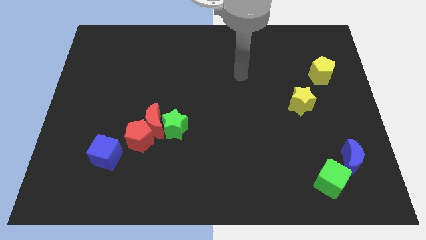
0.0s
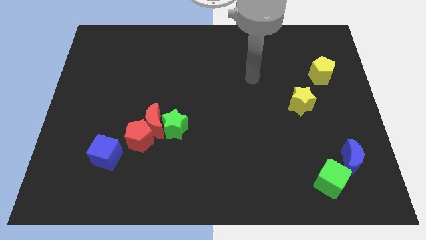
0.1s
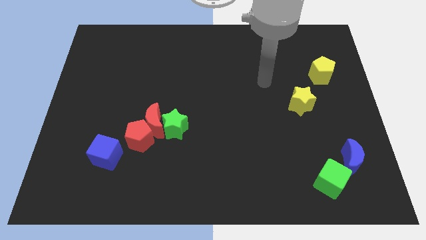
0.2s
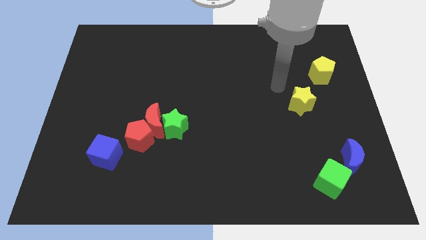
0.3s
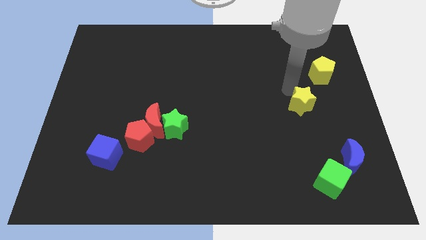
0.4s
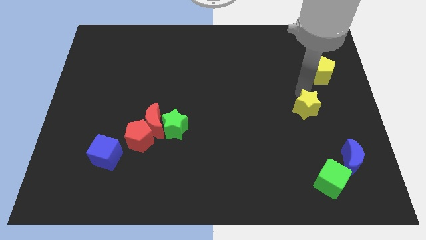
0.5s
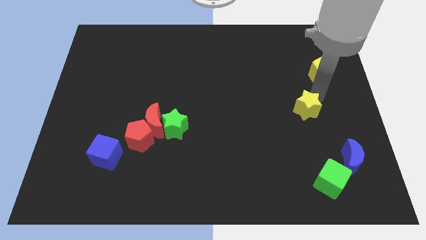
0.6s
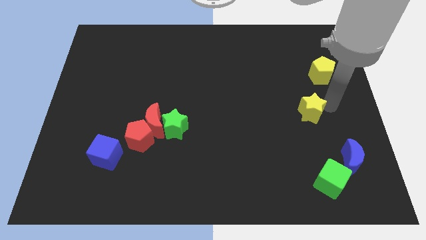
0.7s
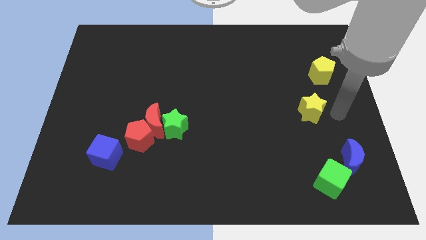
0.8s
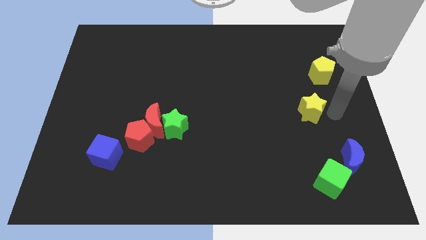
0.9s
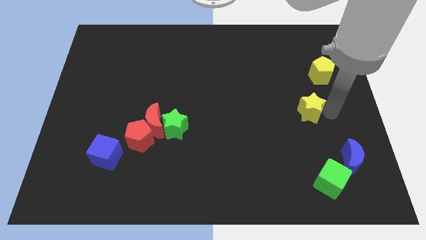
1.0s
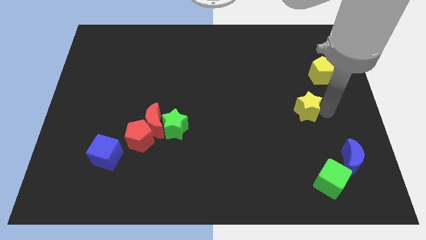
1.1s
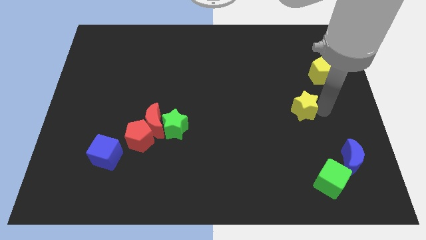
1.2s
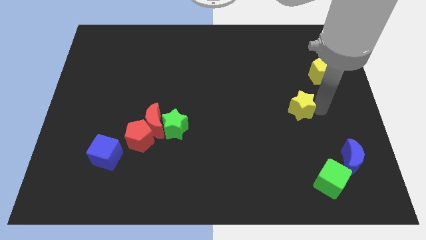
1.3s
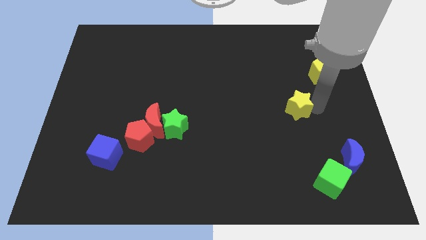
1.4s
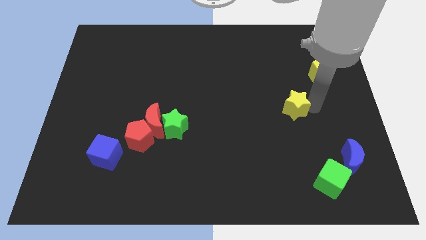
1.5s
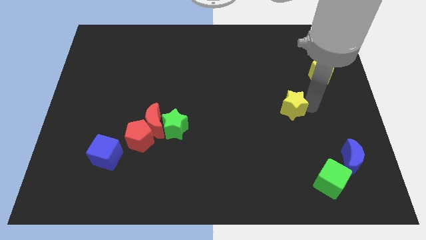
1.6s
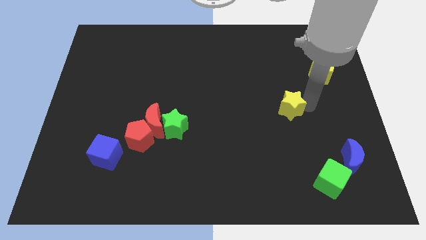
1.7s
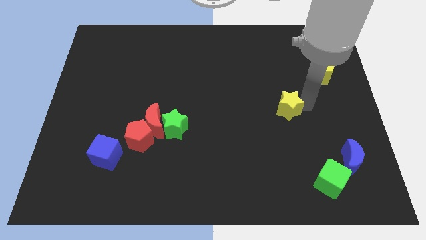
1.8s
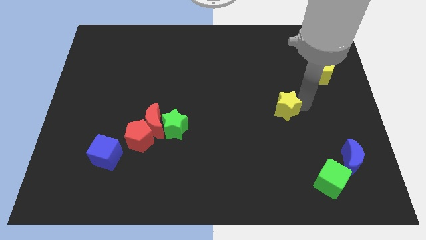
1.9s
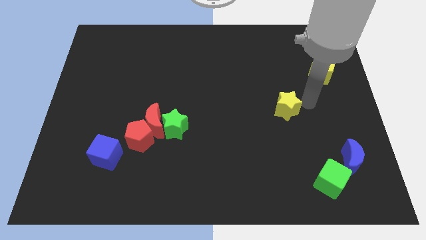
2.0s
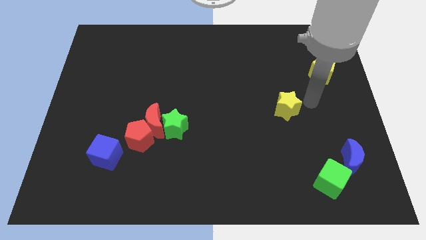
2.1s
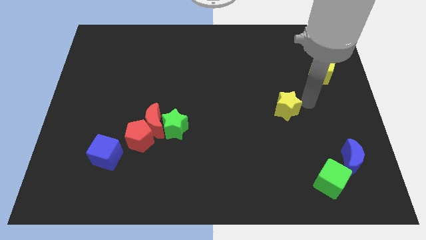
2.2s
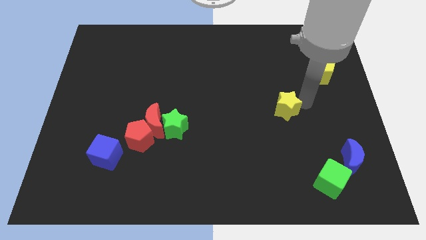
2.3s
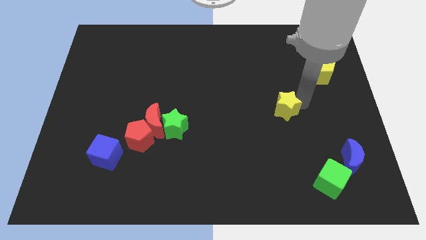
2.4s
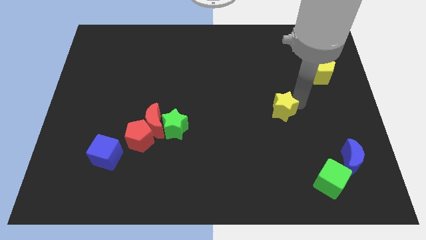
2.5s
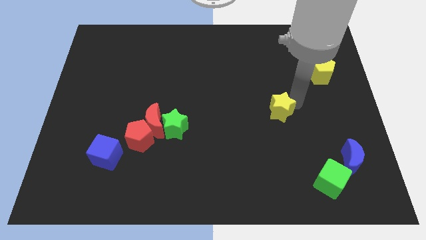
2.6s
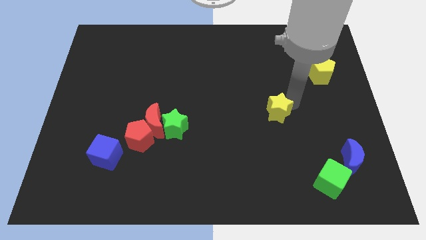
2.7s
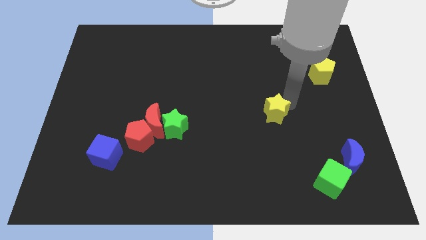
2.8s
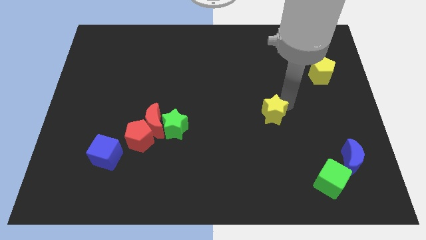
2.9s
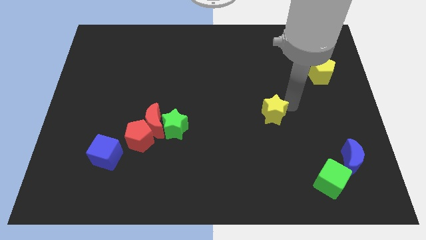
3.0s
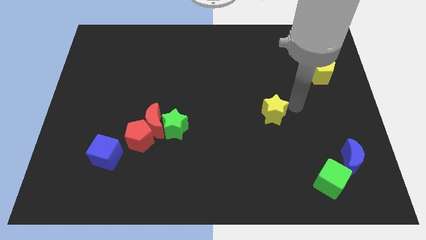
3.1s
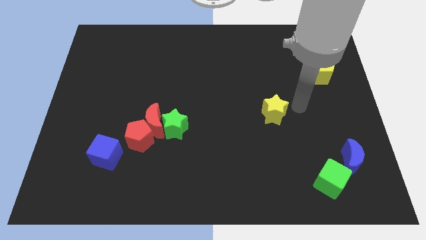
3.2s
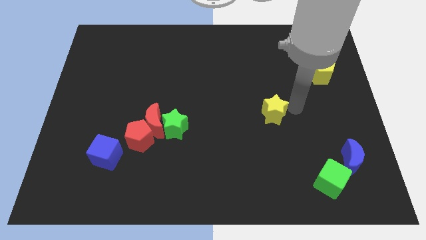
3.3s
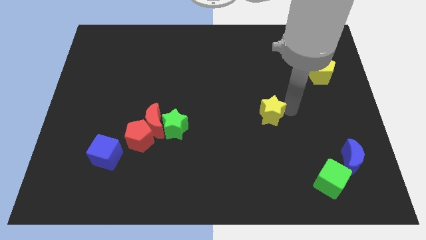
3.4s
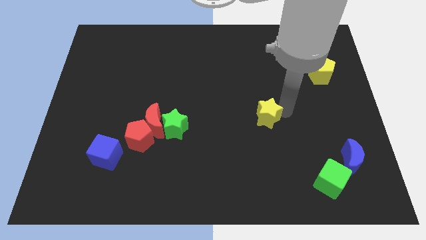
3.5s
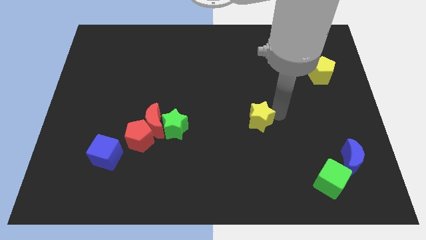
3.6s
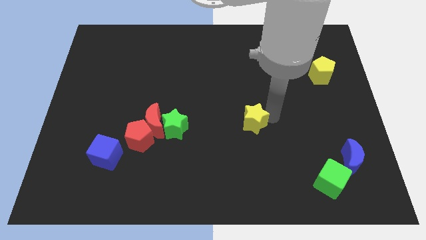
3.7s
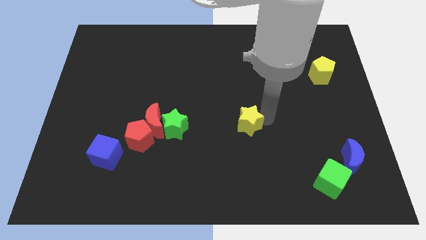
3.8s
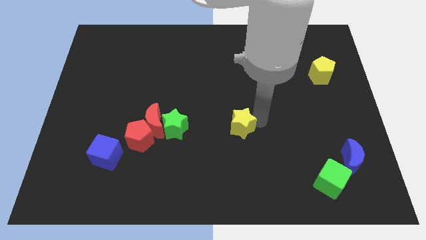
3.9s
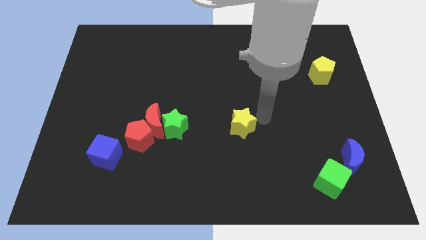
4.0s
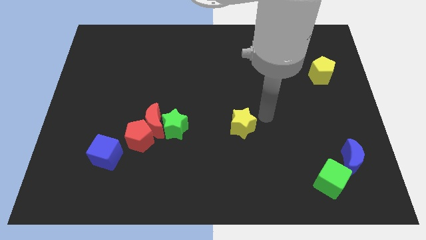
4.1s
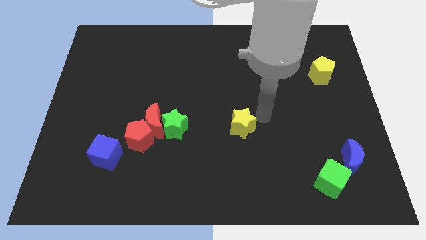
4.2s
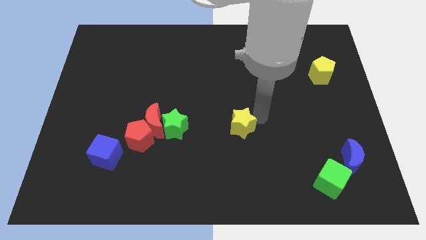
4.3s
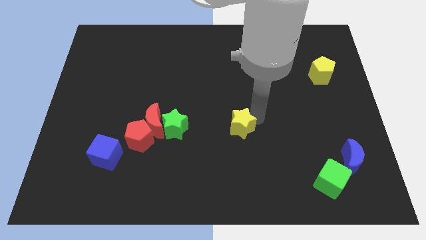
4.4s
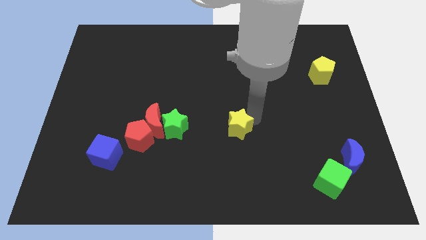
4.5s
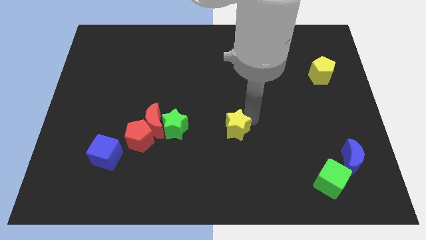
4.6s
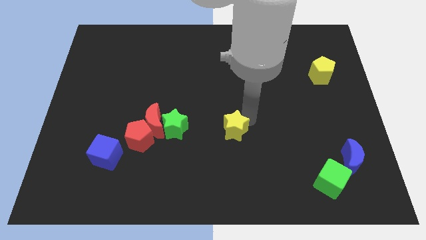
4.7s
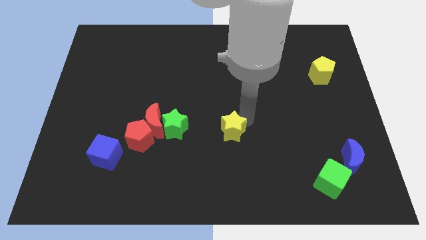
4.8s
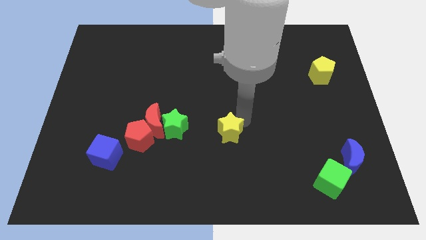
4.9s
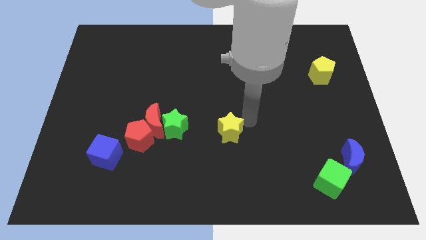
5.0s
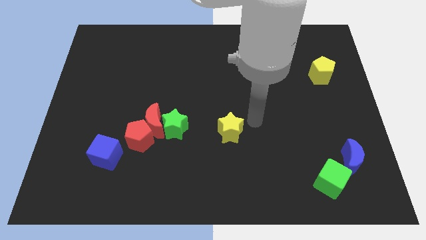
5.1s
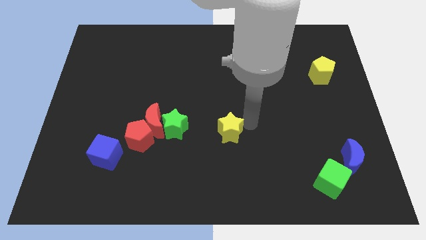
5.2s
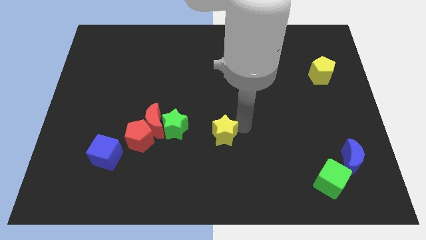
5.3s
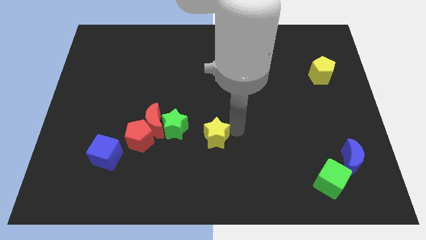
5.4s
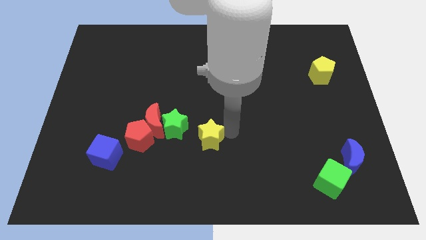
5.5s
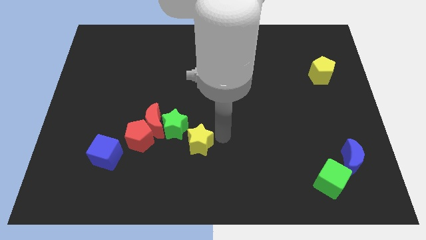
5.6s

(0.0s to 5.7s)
move the yellow star to the bottom right side of the red moon

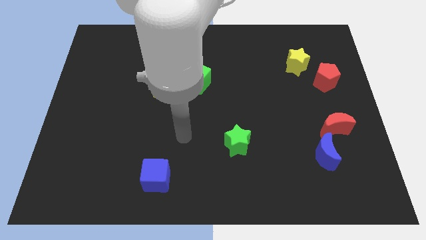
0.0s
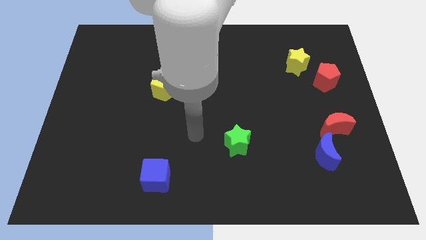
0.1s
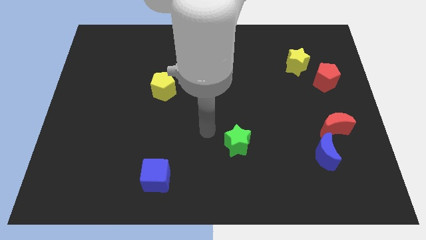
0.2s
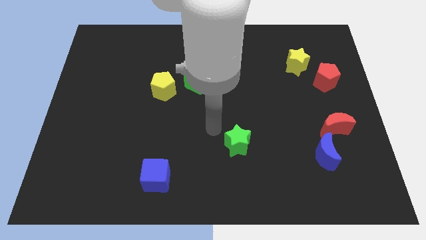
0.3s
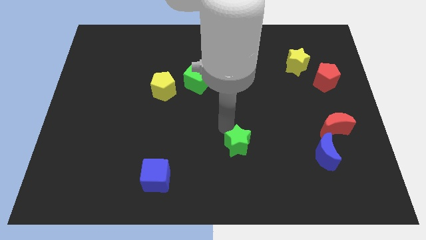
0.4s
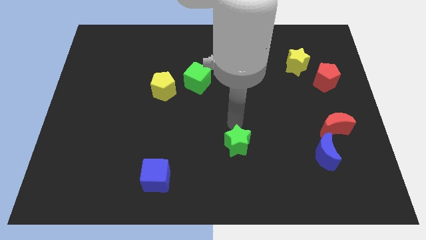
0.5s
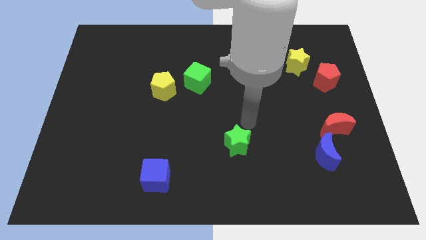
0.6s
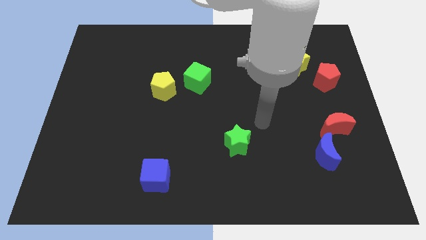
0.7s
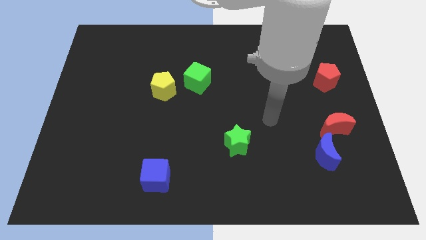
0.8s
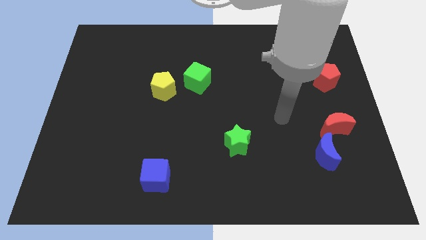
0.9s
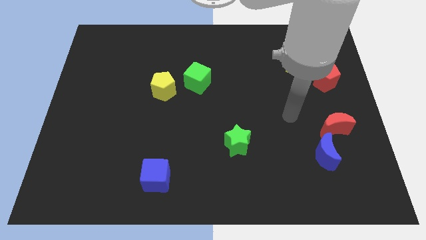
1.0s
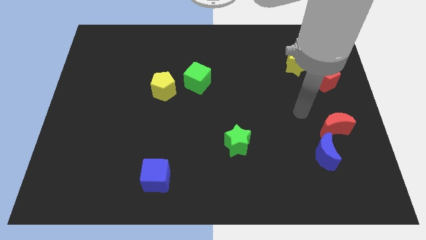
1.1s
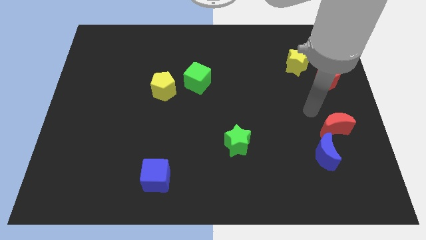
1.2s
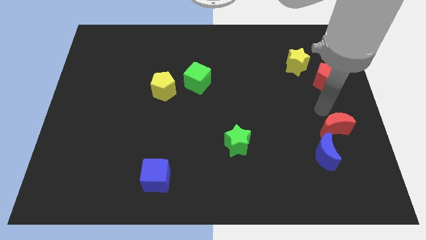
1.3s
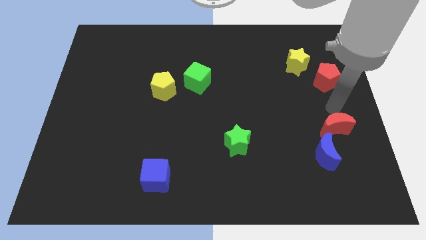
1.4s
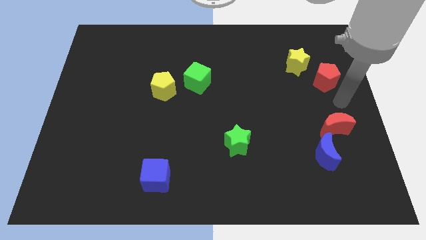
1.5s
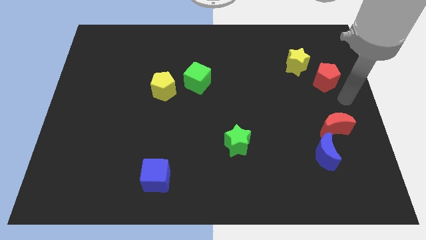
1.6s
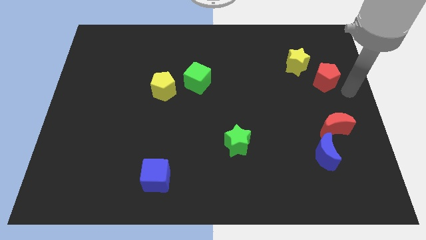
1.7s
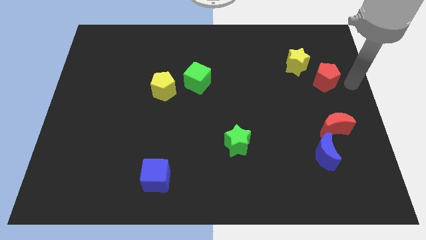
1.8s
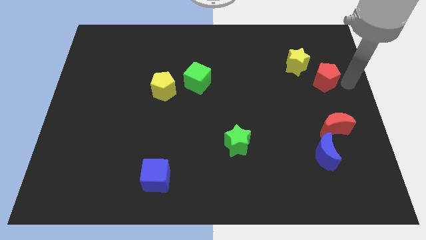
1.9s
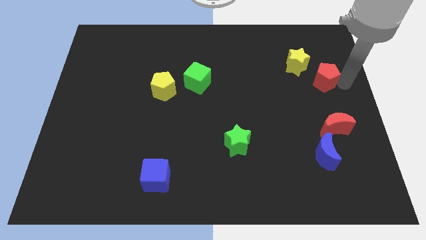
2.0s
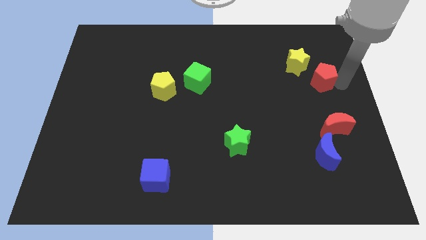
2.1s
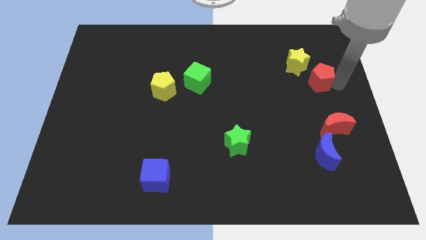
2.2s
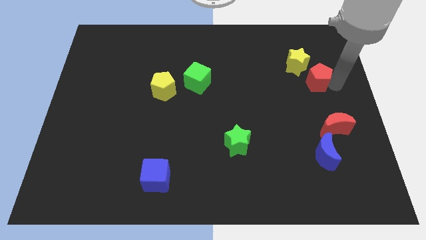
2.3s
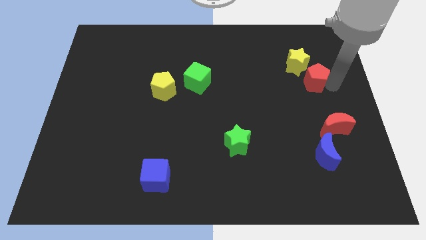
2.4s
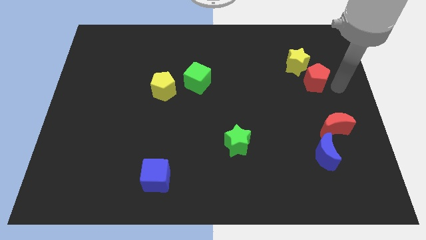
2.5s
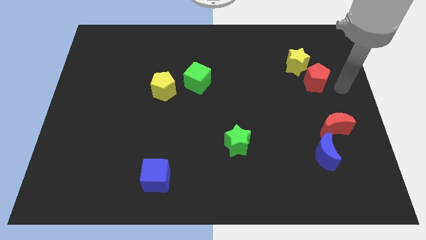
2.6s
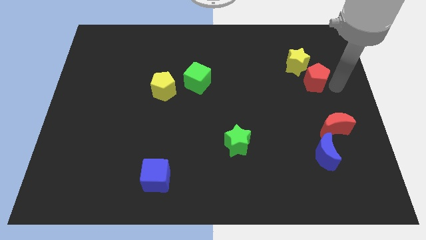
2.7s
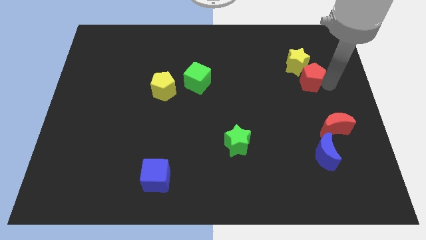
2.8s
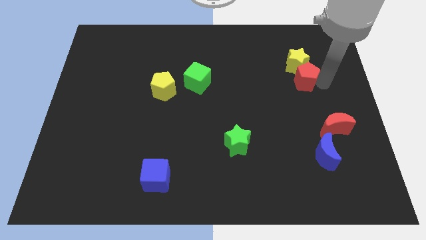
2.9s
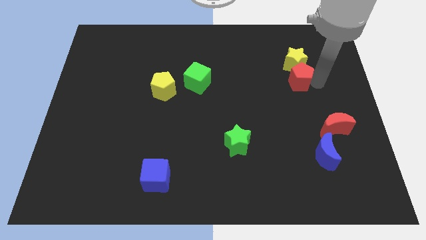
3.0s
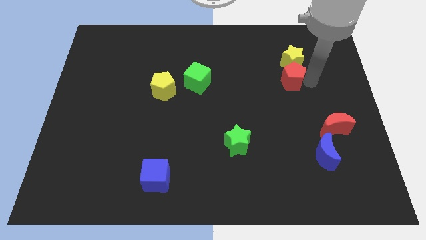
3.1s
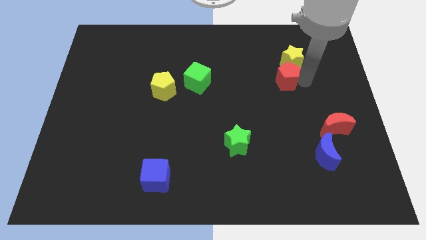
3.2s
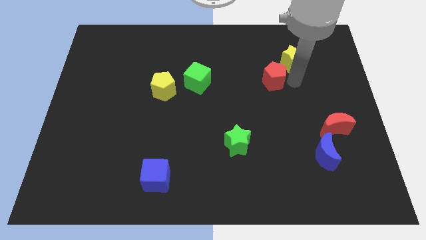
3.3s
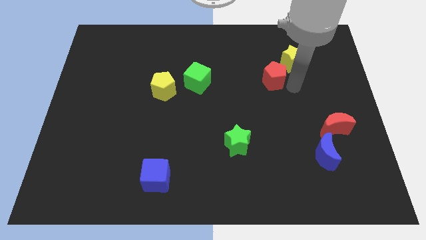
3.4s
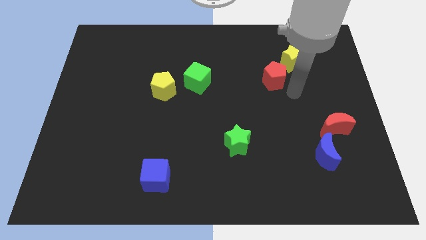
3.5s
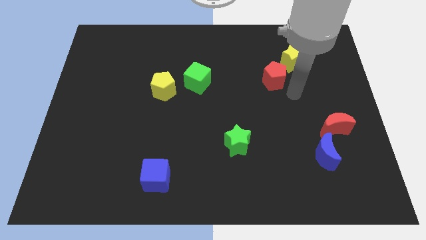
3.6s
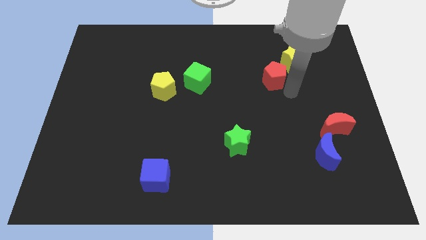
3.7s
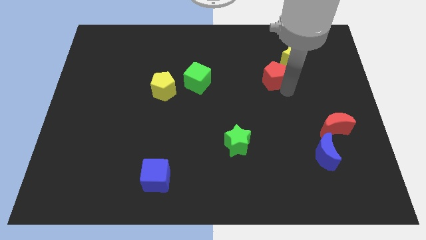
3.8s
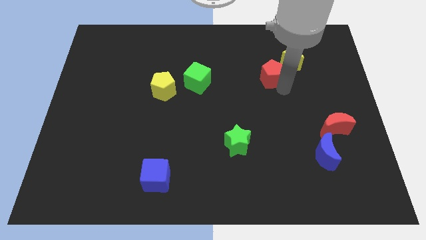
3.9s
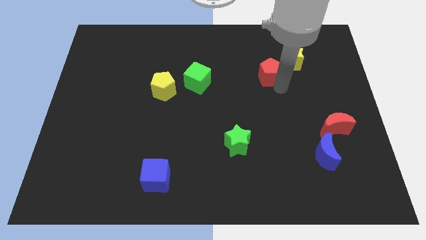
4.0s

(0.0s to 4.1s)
move the red pentagon just left of the yellow star
